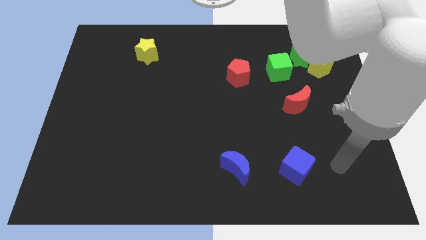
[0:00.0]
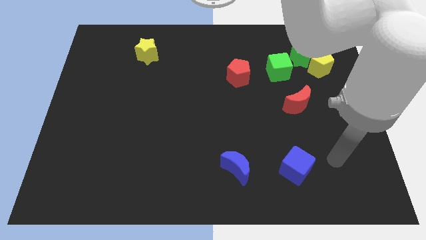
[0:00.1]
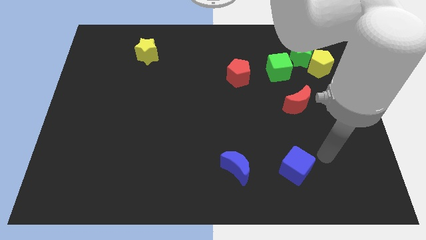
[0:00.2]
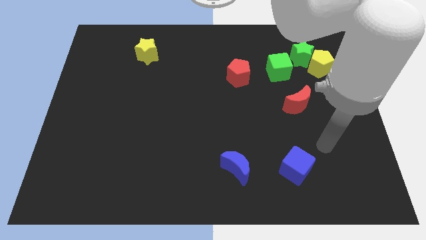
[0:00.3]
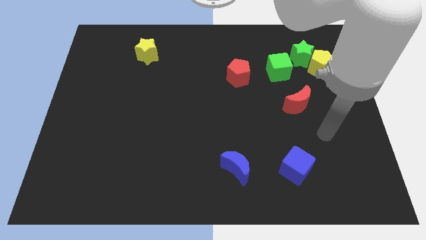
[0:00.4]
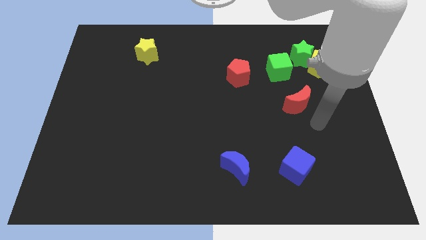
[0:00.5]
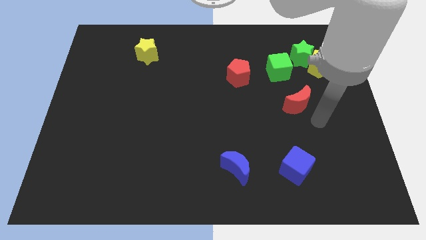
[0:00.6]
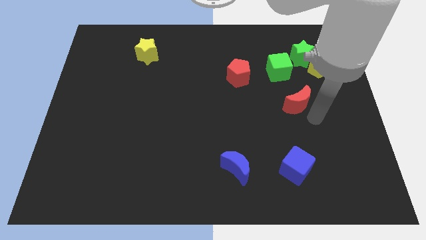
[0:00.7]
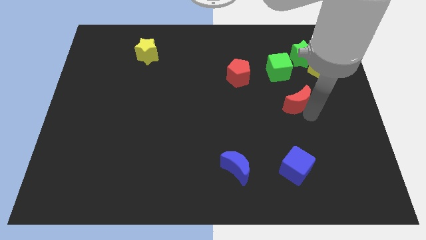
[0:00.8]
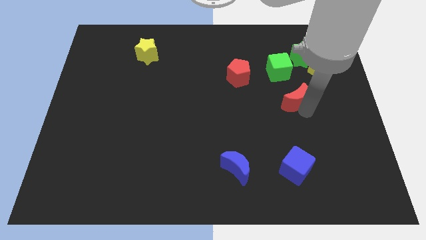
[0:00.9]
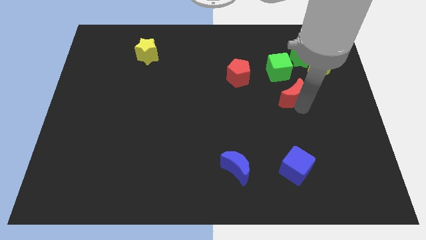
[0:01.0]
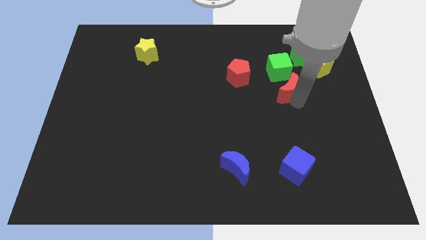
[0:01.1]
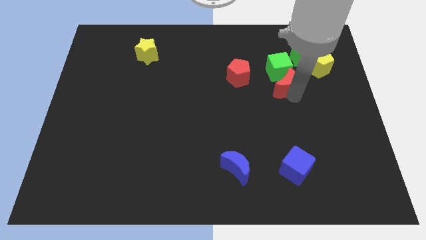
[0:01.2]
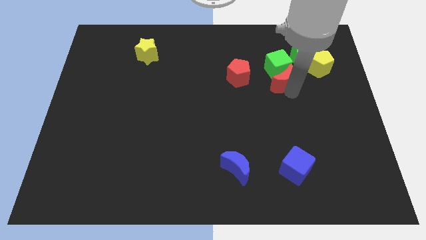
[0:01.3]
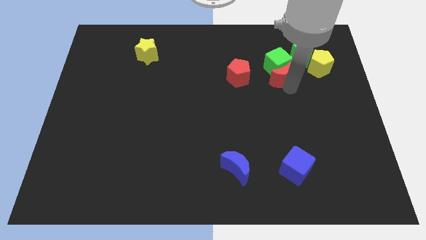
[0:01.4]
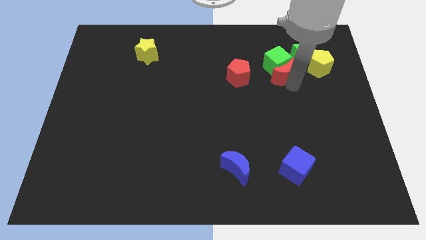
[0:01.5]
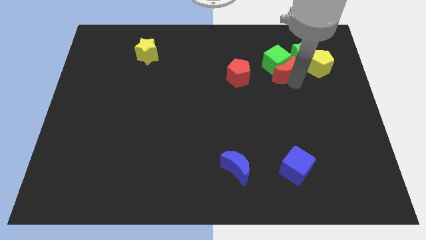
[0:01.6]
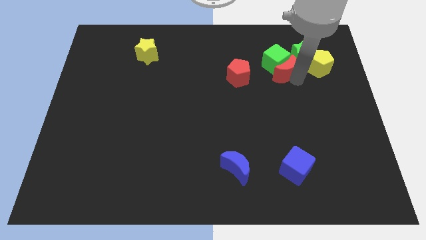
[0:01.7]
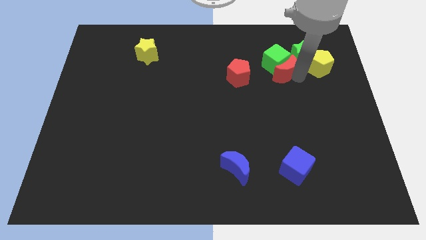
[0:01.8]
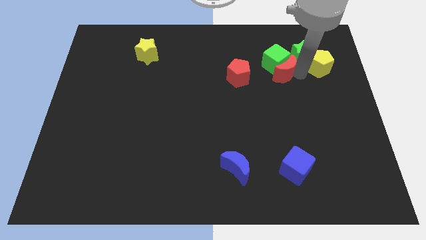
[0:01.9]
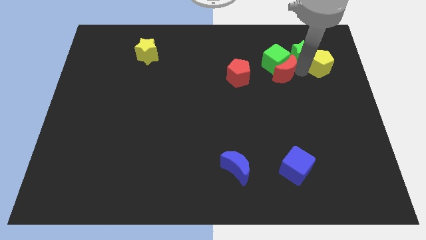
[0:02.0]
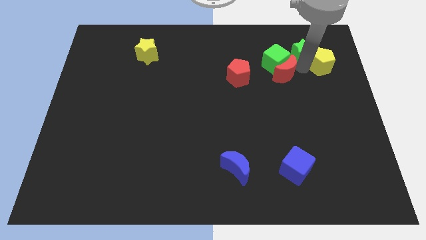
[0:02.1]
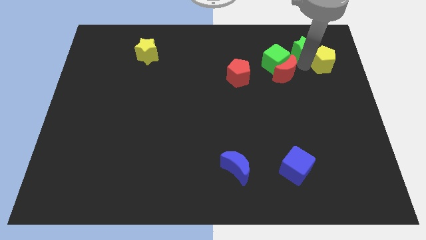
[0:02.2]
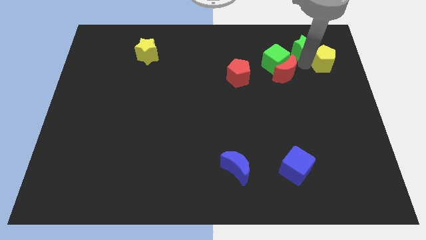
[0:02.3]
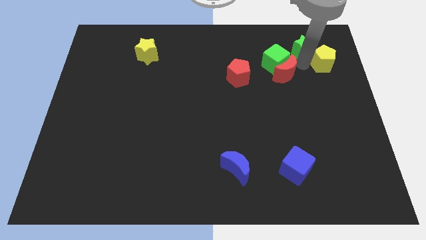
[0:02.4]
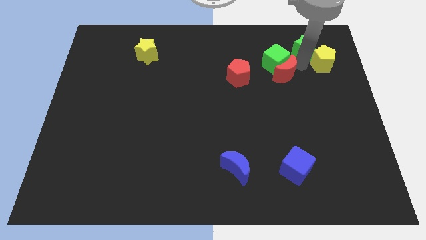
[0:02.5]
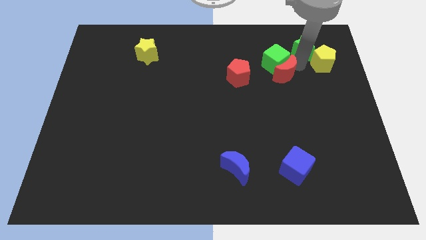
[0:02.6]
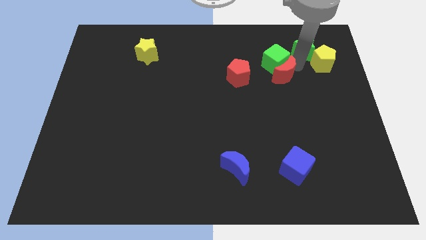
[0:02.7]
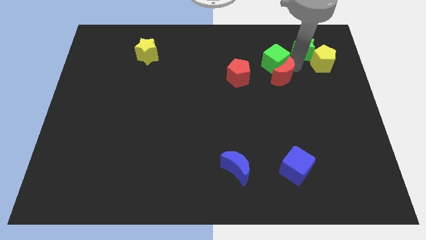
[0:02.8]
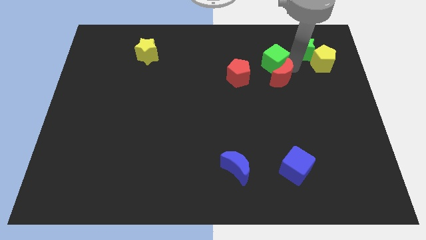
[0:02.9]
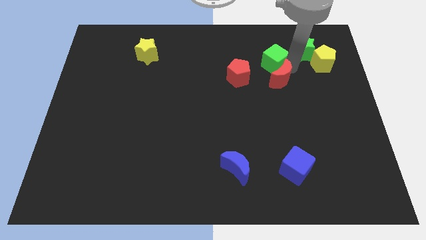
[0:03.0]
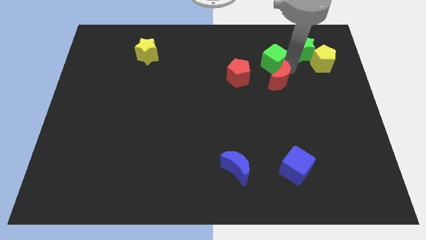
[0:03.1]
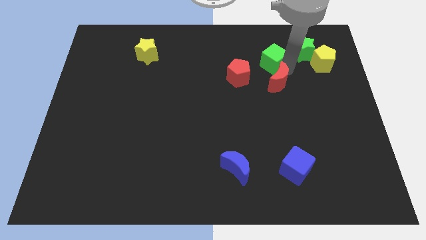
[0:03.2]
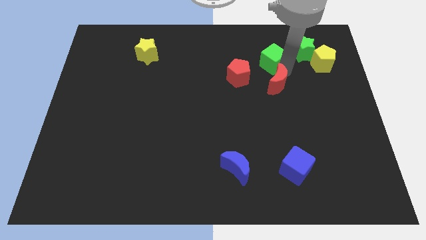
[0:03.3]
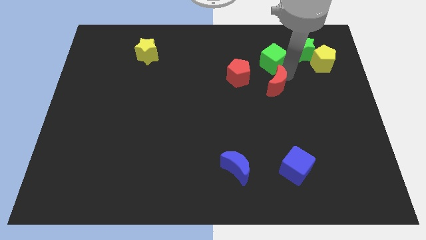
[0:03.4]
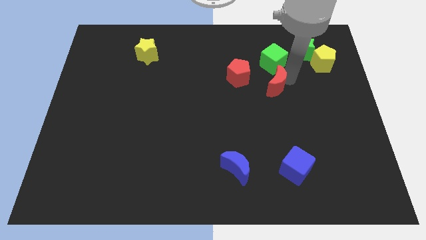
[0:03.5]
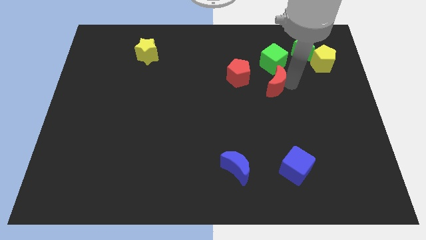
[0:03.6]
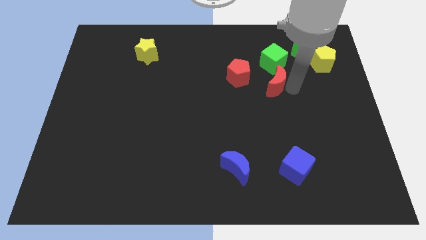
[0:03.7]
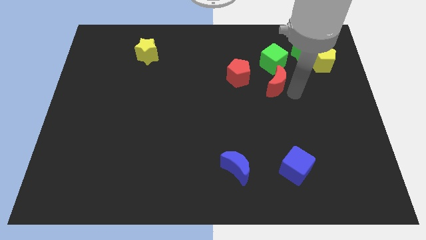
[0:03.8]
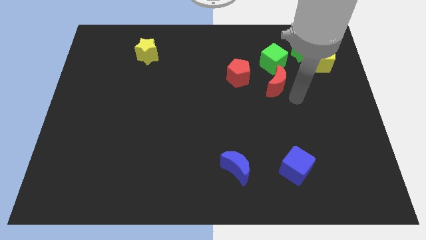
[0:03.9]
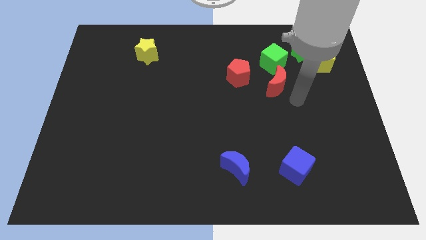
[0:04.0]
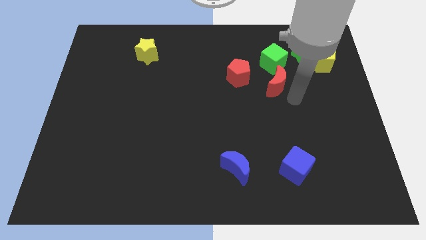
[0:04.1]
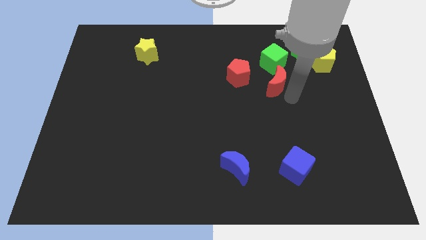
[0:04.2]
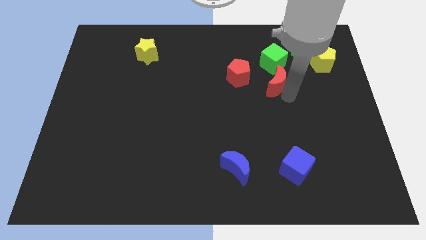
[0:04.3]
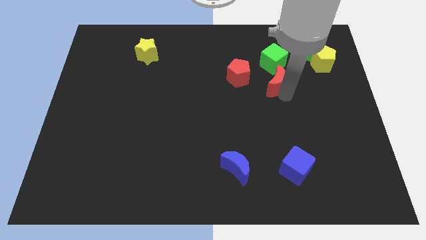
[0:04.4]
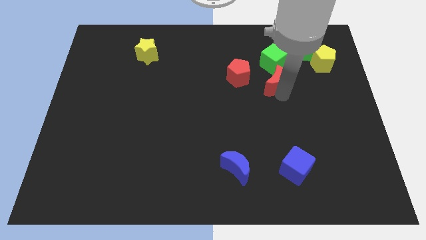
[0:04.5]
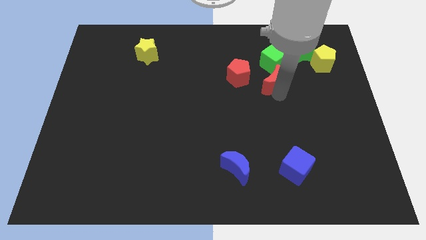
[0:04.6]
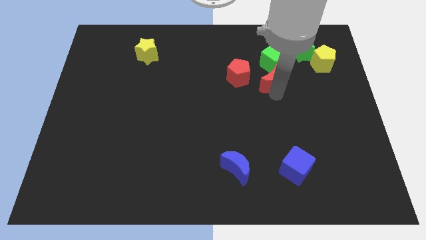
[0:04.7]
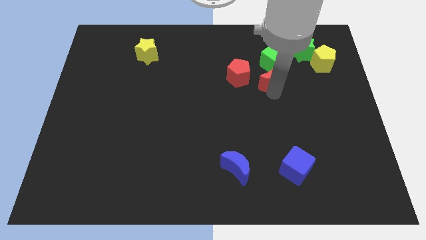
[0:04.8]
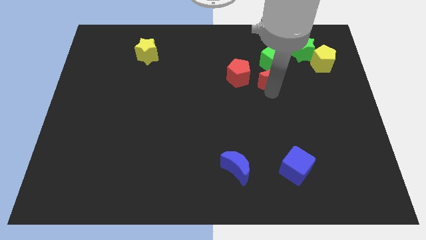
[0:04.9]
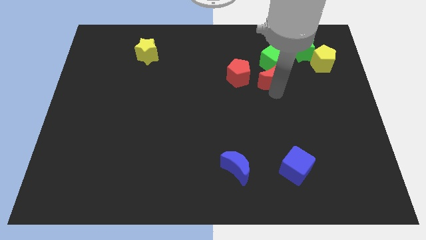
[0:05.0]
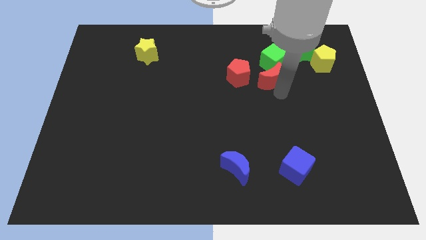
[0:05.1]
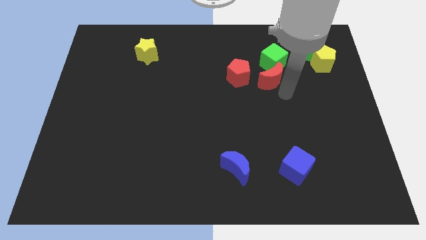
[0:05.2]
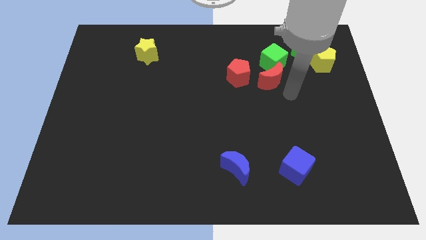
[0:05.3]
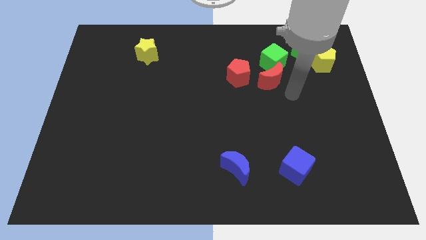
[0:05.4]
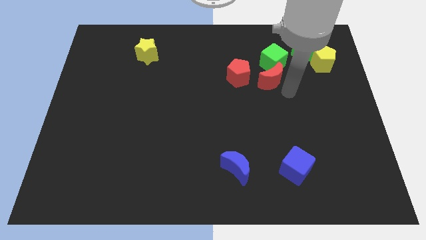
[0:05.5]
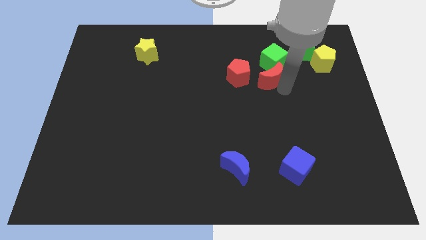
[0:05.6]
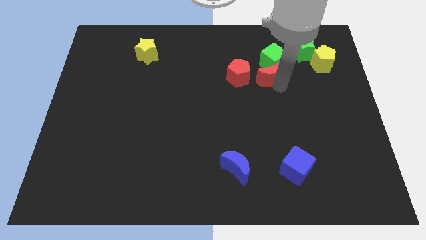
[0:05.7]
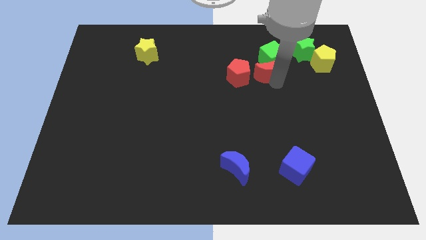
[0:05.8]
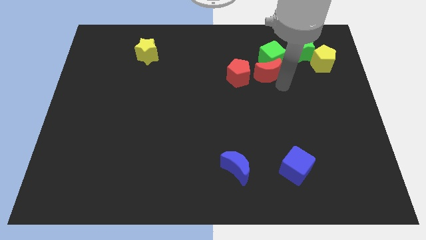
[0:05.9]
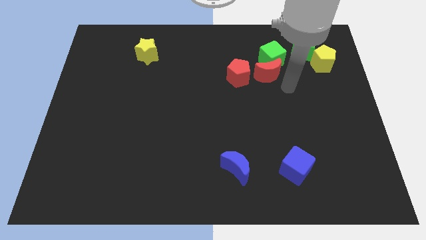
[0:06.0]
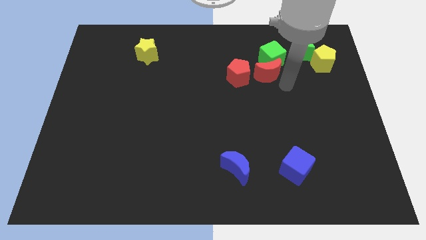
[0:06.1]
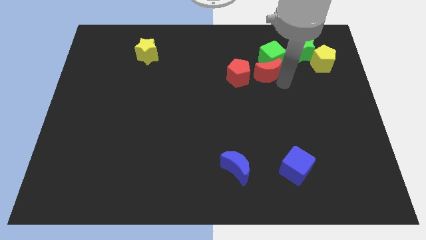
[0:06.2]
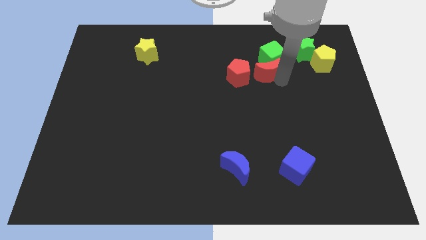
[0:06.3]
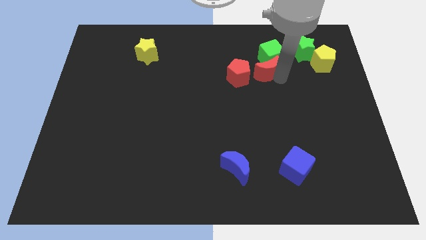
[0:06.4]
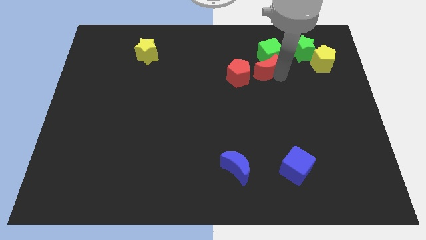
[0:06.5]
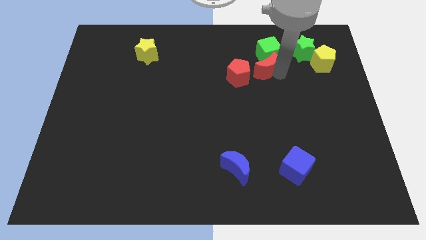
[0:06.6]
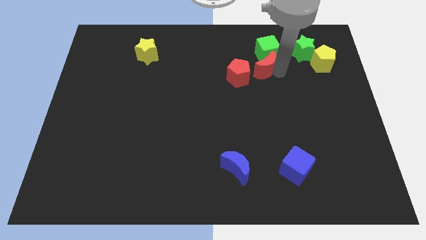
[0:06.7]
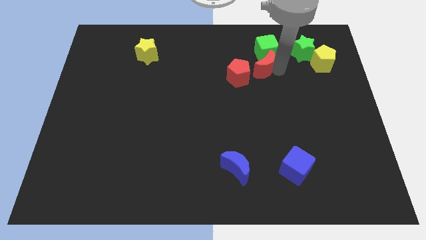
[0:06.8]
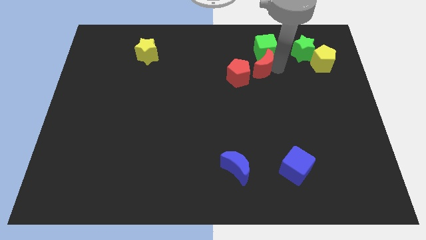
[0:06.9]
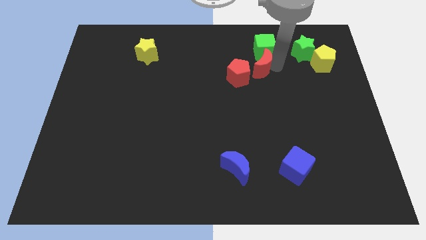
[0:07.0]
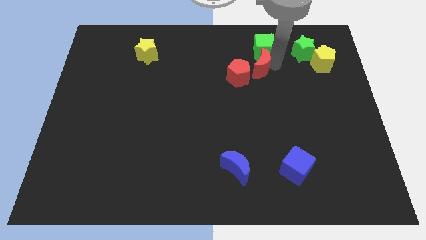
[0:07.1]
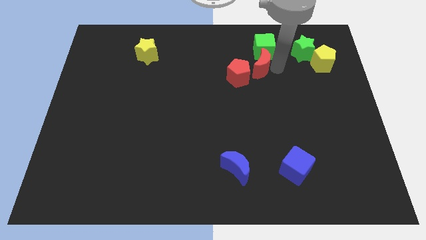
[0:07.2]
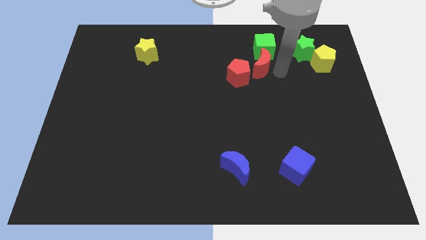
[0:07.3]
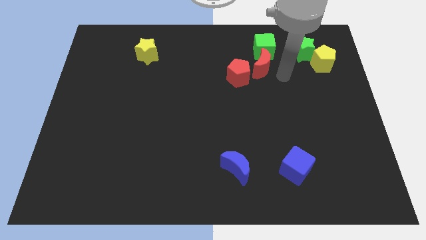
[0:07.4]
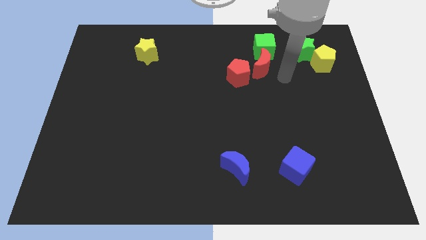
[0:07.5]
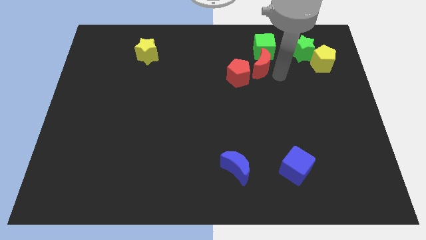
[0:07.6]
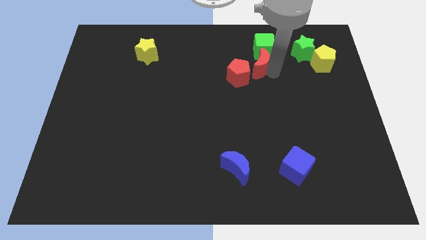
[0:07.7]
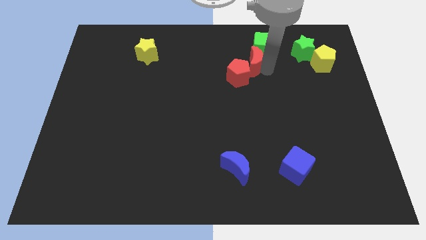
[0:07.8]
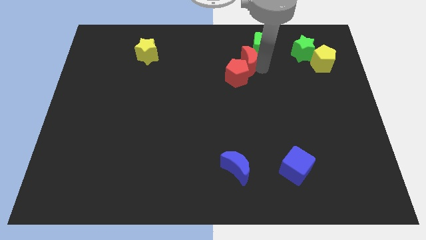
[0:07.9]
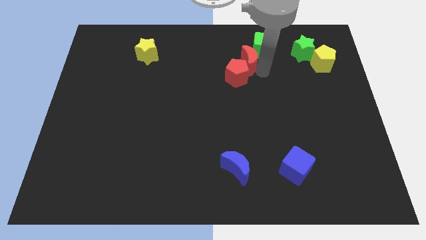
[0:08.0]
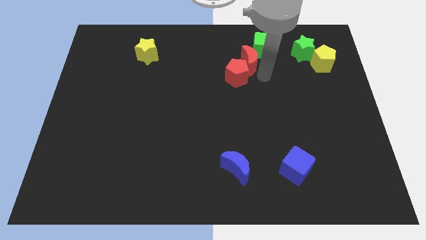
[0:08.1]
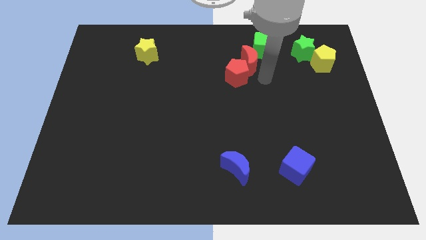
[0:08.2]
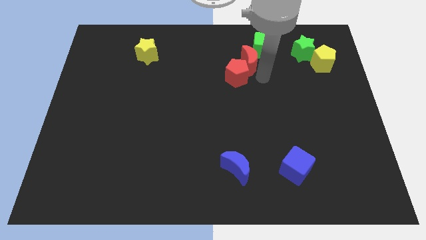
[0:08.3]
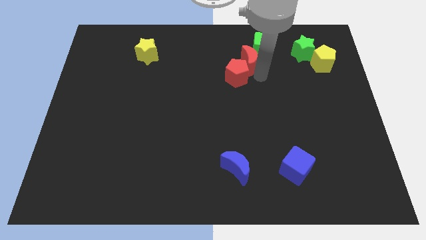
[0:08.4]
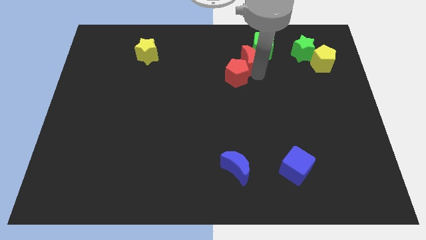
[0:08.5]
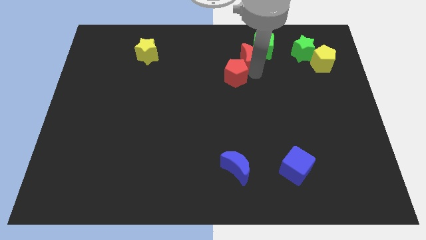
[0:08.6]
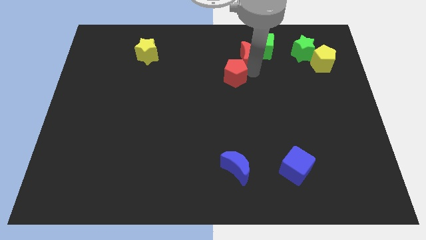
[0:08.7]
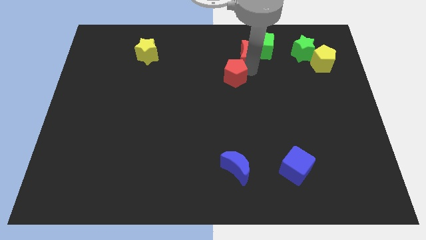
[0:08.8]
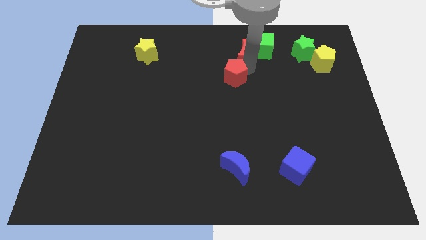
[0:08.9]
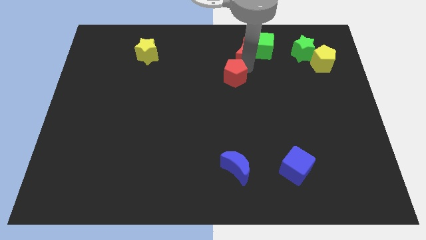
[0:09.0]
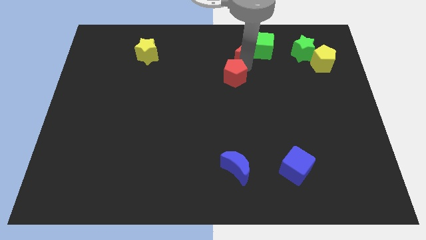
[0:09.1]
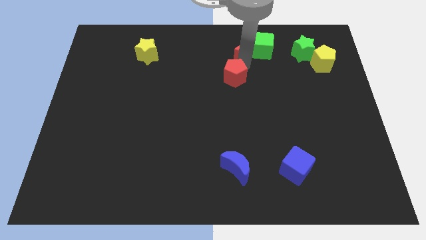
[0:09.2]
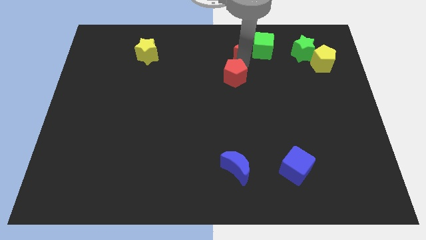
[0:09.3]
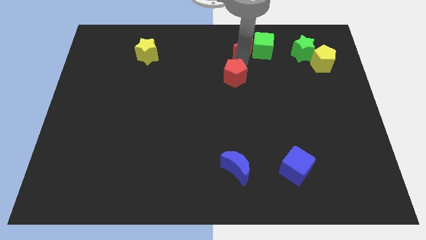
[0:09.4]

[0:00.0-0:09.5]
push the red moon to the top
